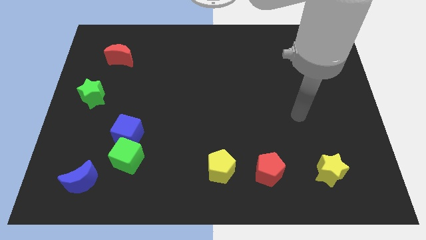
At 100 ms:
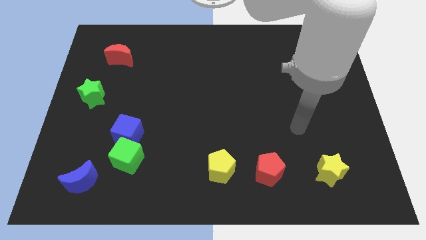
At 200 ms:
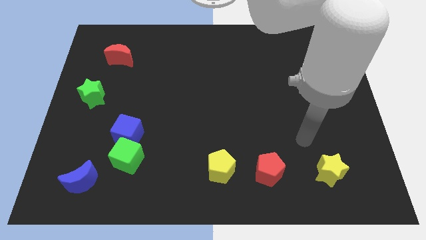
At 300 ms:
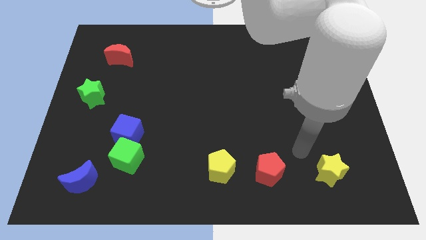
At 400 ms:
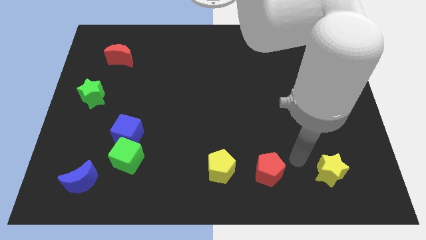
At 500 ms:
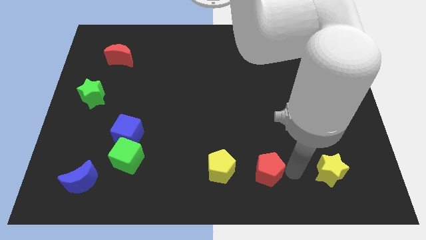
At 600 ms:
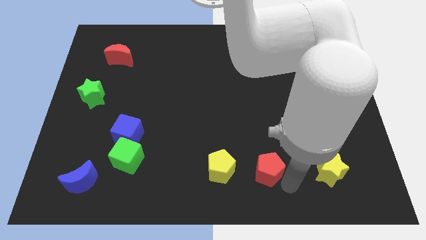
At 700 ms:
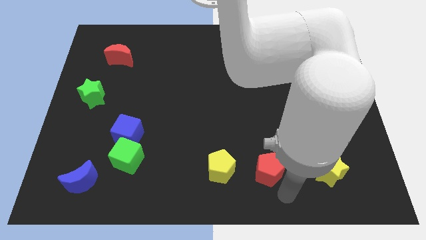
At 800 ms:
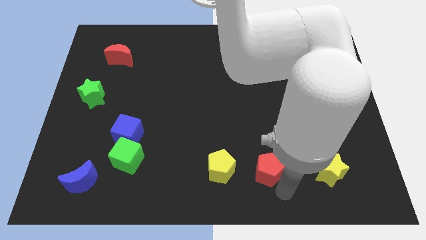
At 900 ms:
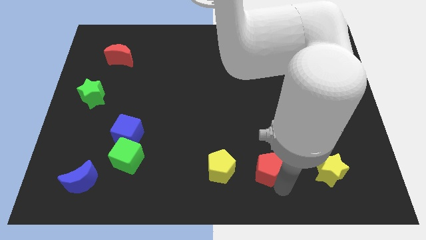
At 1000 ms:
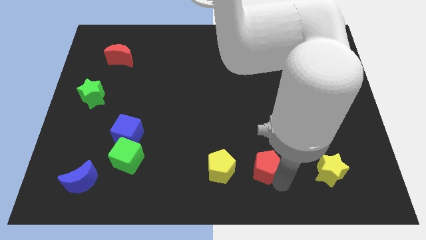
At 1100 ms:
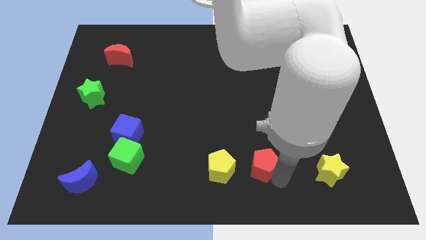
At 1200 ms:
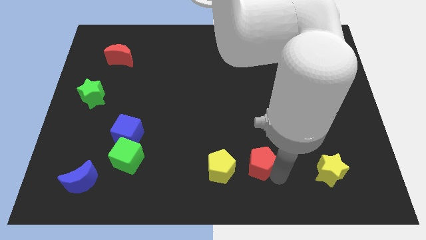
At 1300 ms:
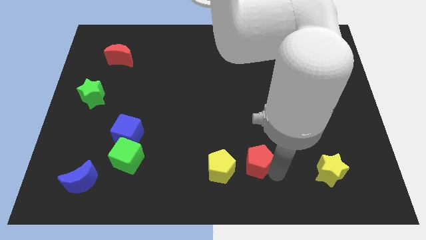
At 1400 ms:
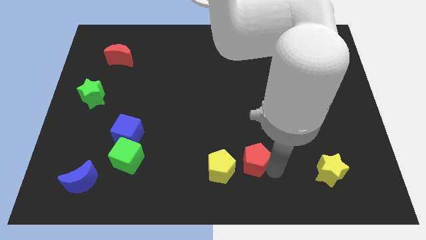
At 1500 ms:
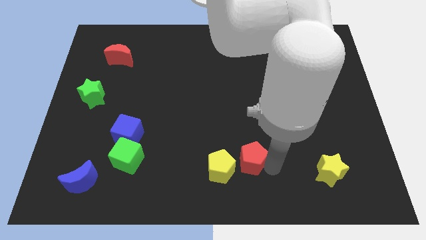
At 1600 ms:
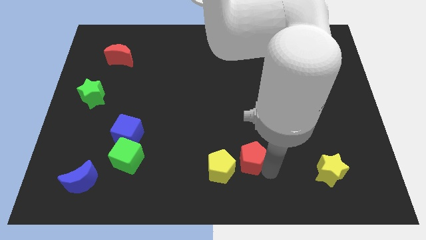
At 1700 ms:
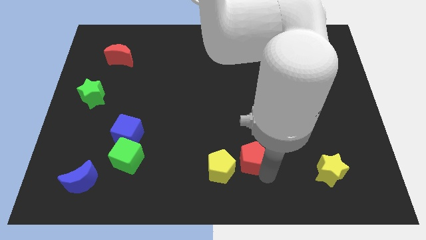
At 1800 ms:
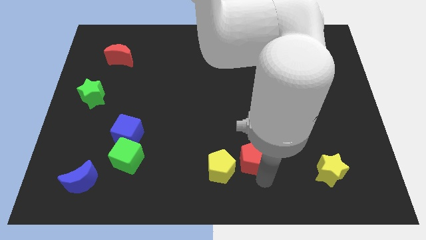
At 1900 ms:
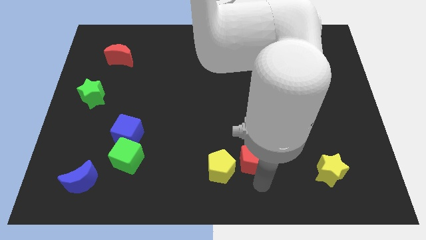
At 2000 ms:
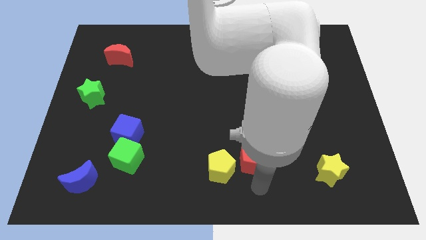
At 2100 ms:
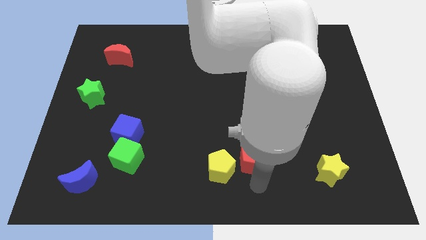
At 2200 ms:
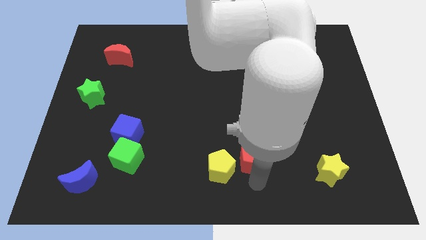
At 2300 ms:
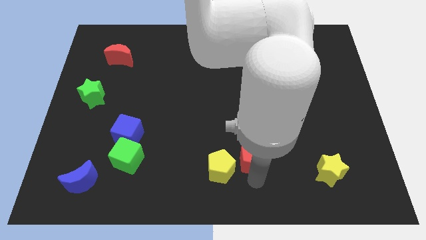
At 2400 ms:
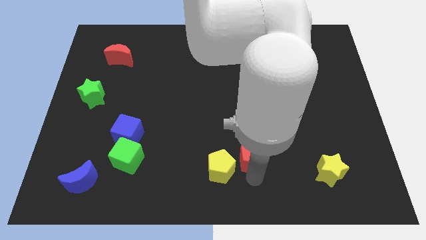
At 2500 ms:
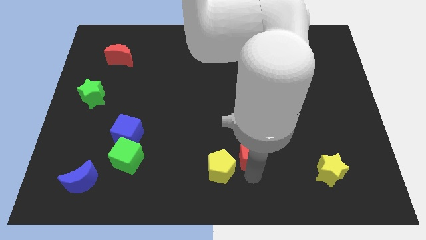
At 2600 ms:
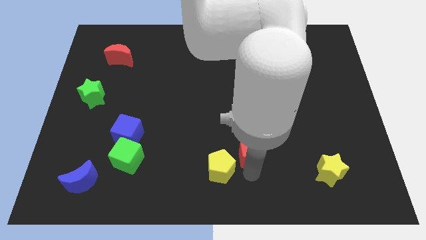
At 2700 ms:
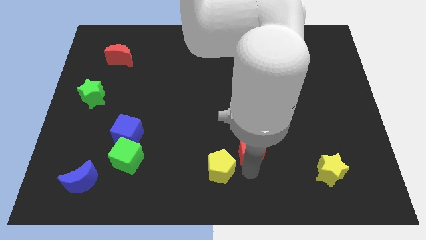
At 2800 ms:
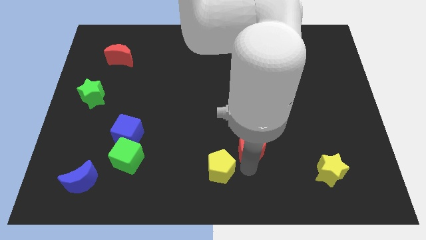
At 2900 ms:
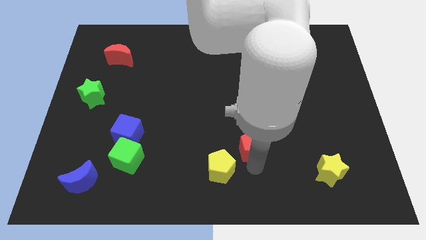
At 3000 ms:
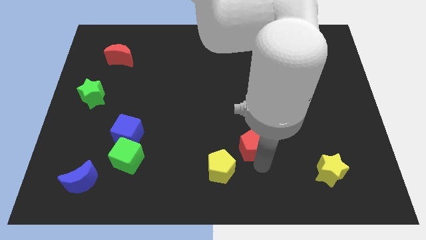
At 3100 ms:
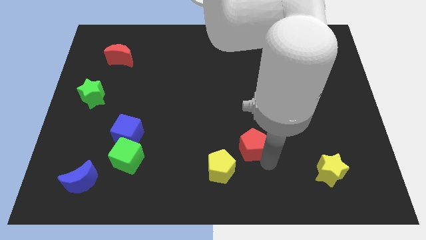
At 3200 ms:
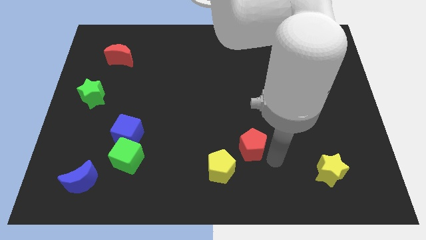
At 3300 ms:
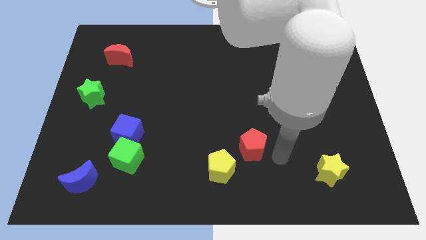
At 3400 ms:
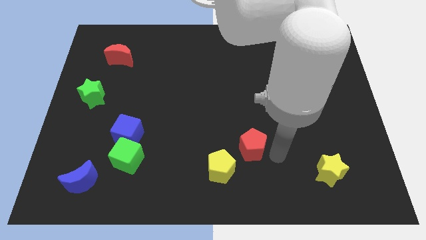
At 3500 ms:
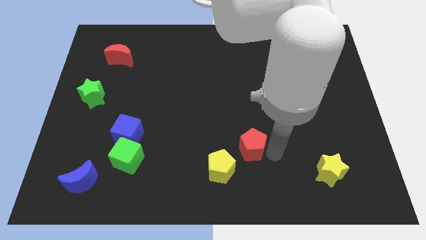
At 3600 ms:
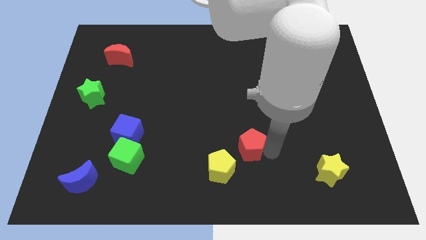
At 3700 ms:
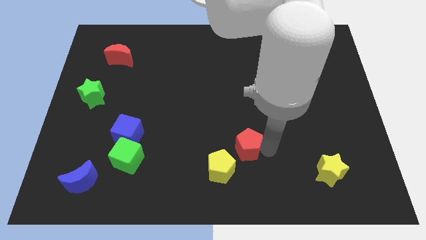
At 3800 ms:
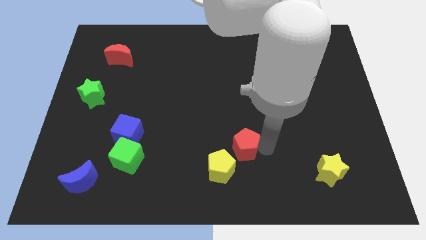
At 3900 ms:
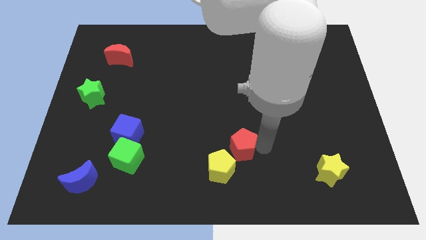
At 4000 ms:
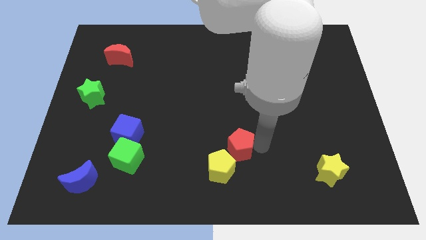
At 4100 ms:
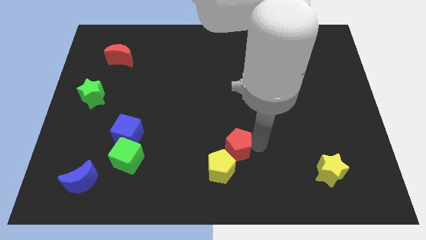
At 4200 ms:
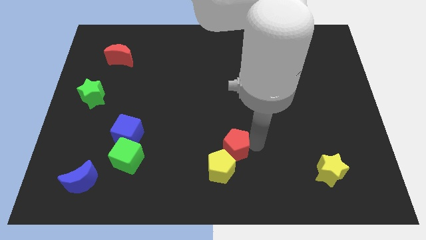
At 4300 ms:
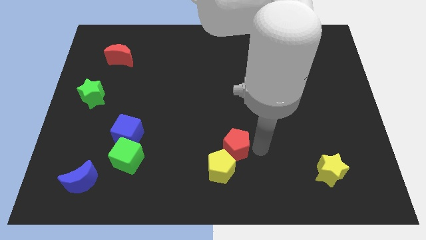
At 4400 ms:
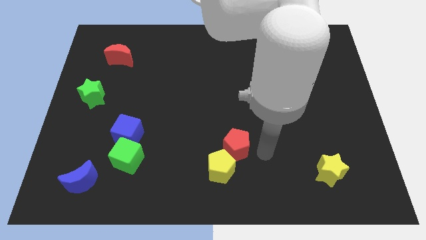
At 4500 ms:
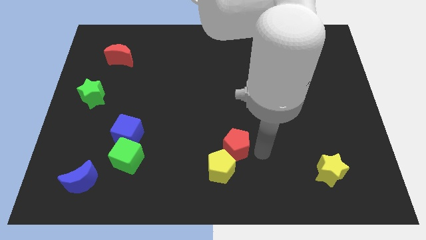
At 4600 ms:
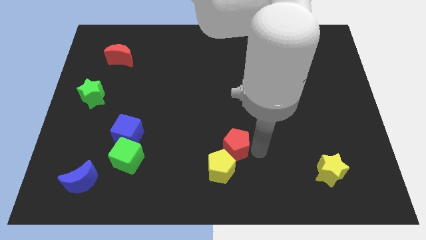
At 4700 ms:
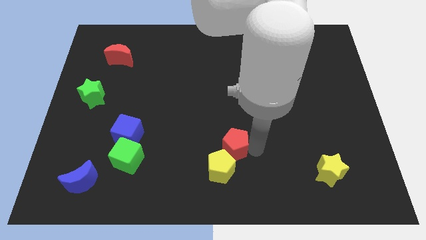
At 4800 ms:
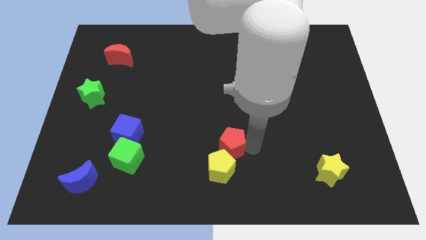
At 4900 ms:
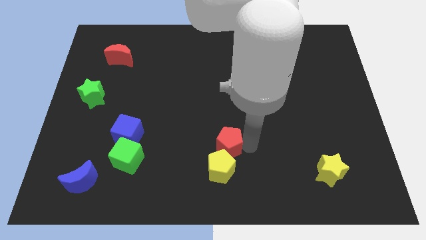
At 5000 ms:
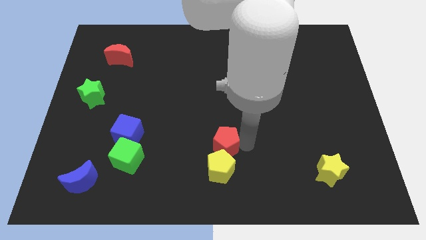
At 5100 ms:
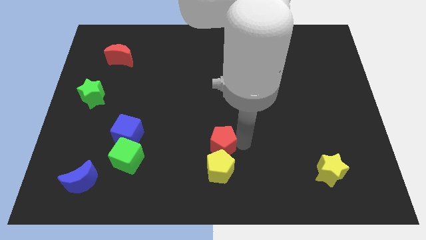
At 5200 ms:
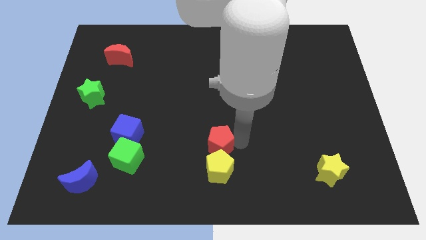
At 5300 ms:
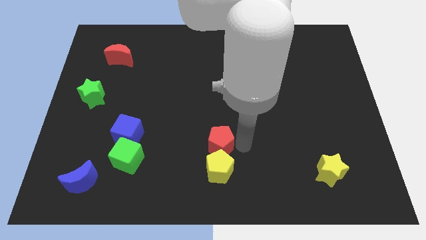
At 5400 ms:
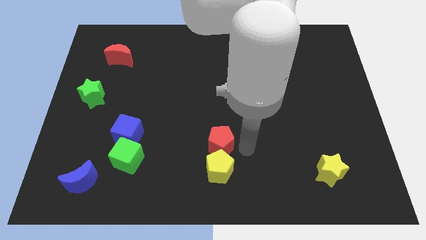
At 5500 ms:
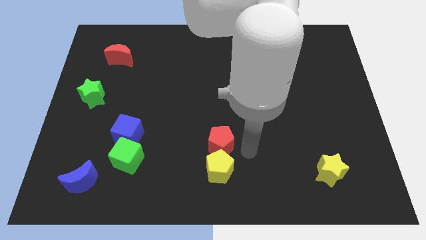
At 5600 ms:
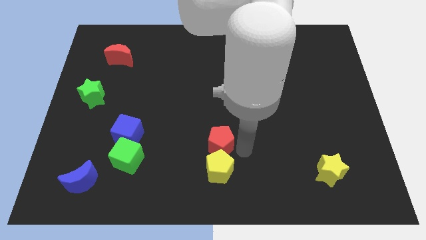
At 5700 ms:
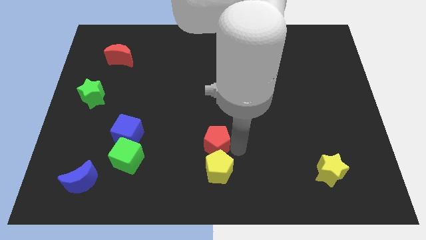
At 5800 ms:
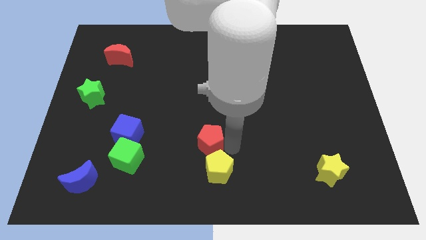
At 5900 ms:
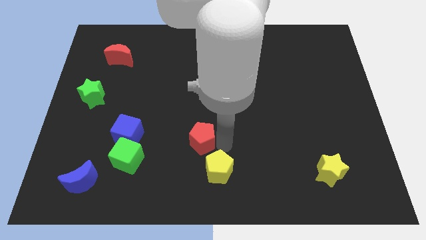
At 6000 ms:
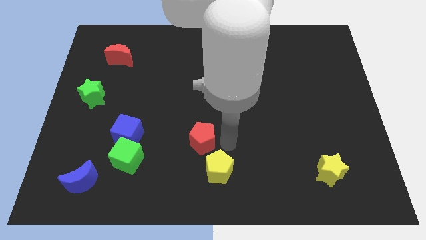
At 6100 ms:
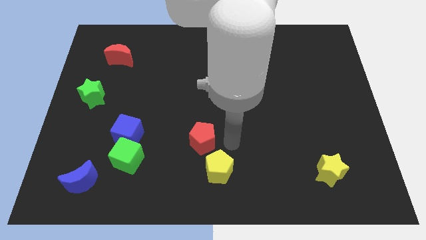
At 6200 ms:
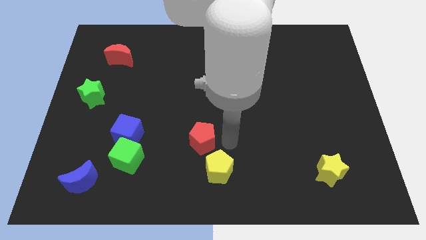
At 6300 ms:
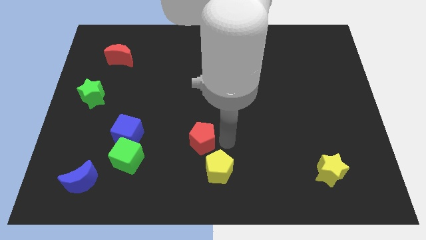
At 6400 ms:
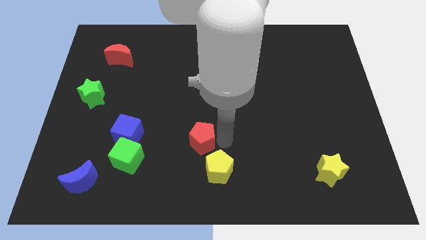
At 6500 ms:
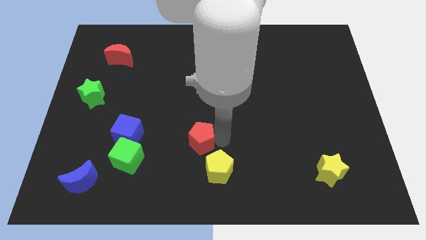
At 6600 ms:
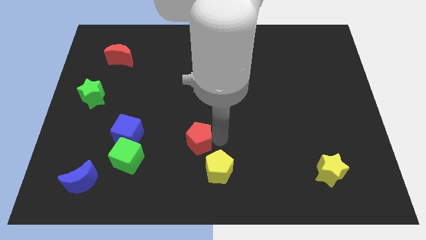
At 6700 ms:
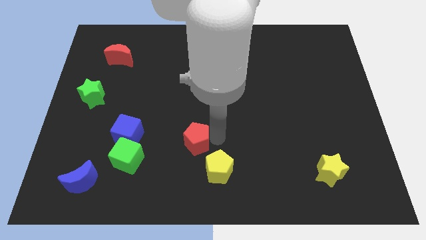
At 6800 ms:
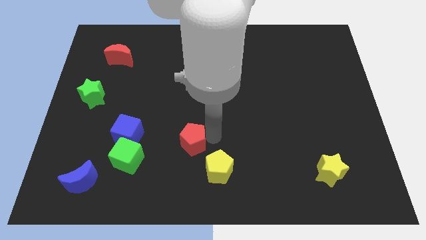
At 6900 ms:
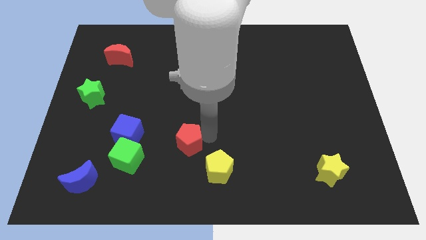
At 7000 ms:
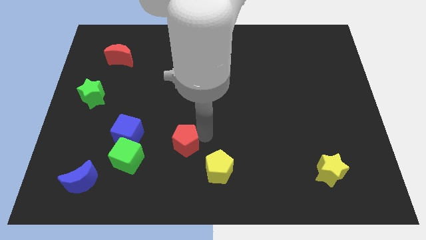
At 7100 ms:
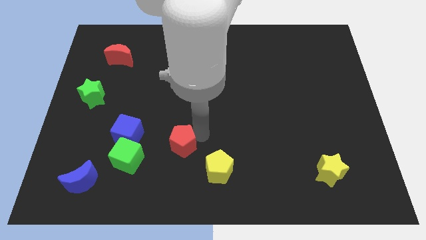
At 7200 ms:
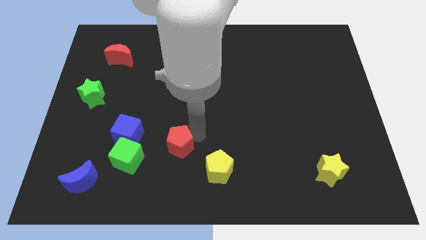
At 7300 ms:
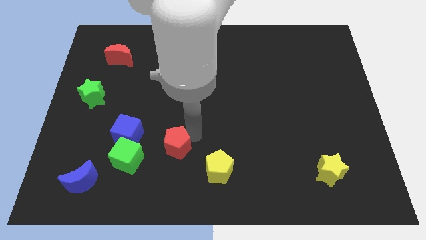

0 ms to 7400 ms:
slide the red pentagon to the top right of the green cube
